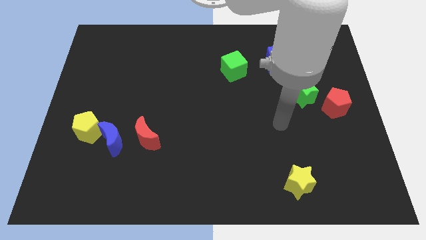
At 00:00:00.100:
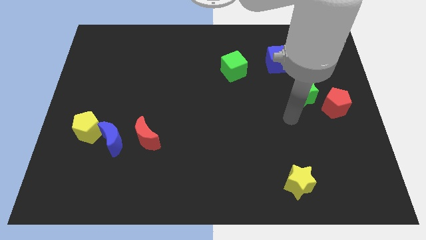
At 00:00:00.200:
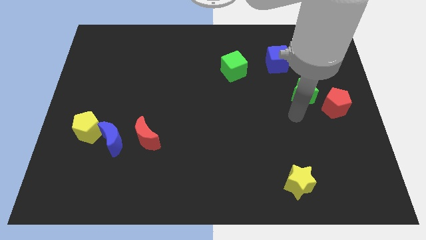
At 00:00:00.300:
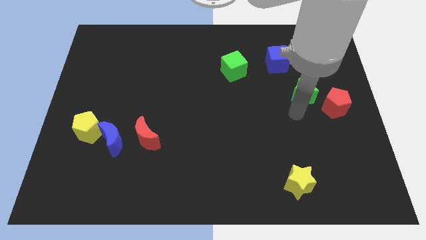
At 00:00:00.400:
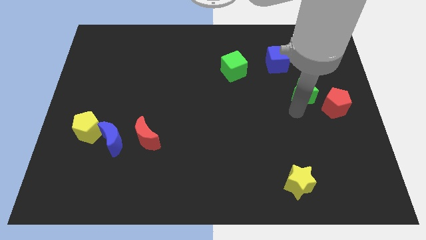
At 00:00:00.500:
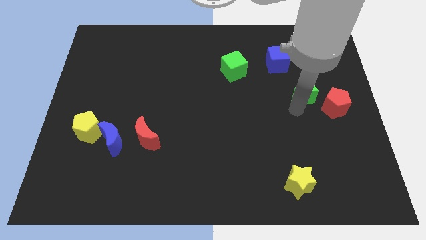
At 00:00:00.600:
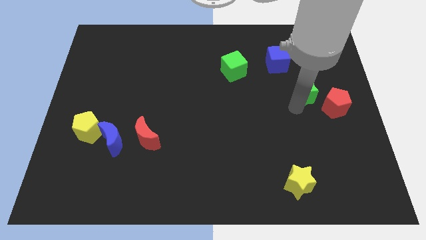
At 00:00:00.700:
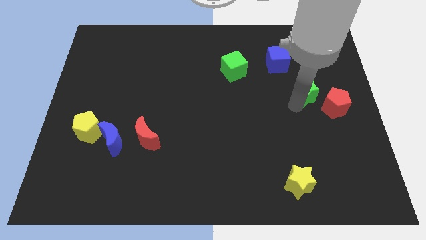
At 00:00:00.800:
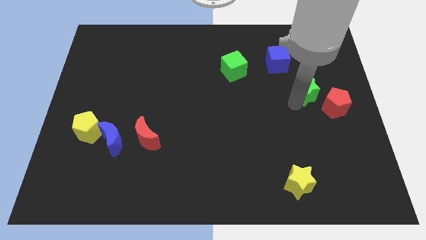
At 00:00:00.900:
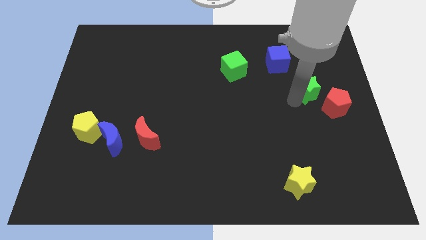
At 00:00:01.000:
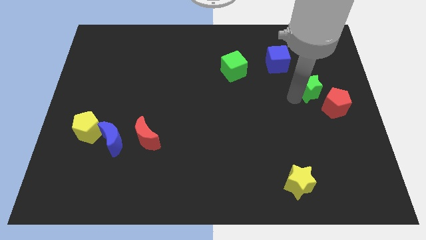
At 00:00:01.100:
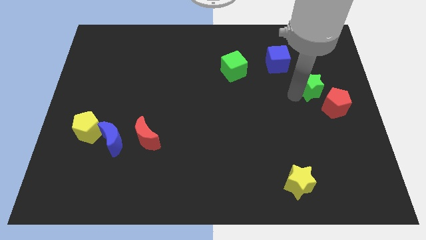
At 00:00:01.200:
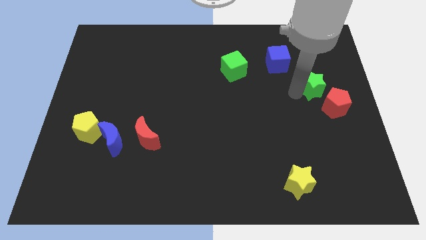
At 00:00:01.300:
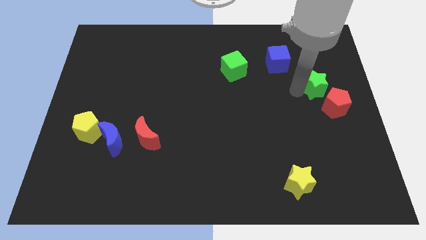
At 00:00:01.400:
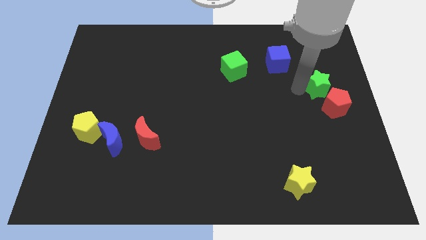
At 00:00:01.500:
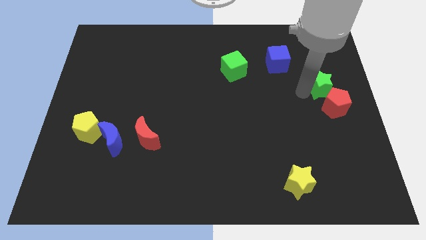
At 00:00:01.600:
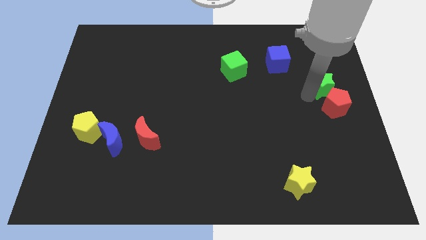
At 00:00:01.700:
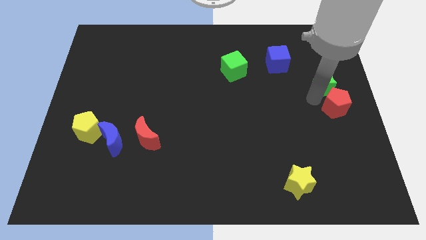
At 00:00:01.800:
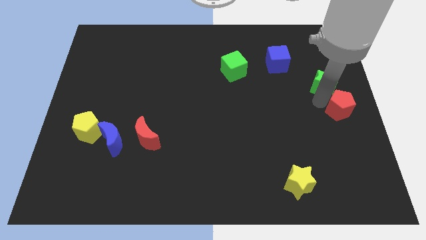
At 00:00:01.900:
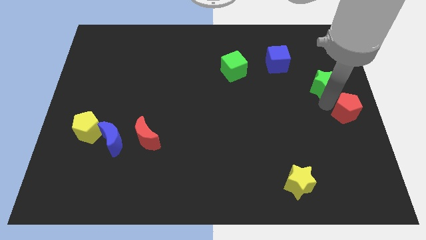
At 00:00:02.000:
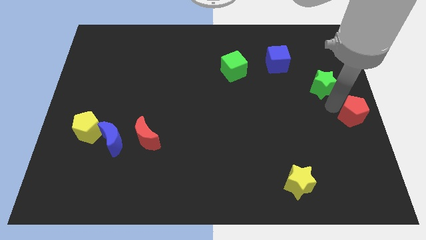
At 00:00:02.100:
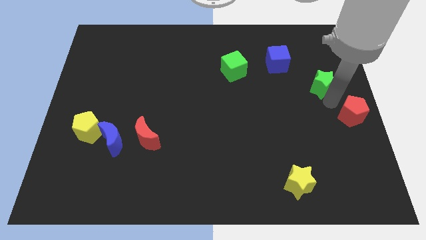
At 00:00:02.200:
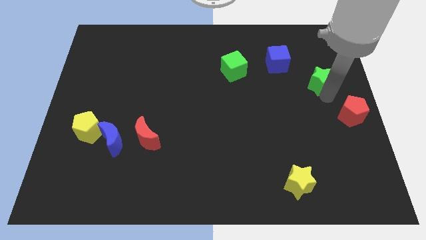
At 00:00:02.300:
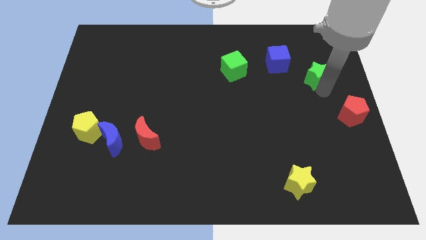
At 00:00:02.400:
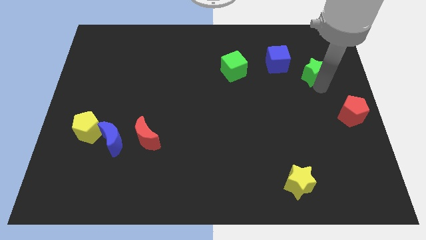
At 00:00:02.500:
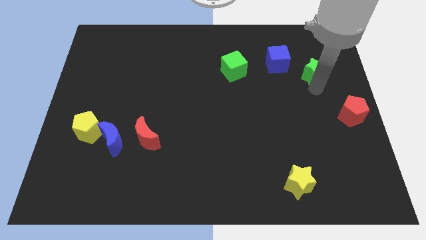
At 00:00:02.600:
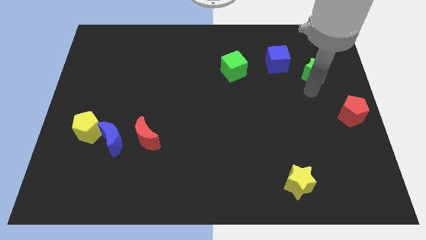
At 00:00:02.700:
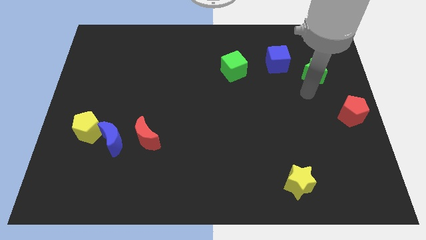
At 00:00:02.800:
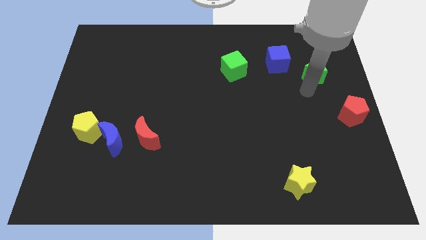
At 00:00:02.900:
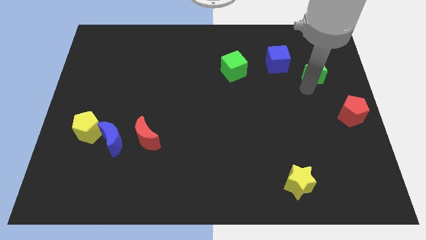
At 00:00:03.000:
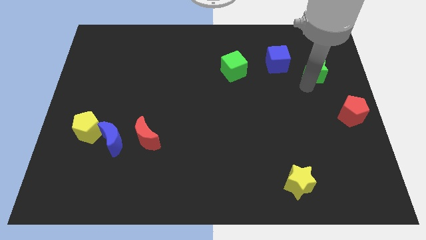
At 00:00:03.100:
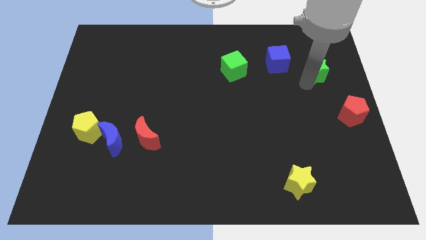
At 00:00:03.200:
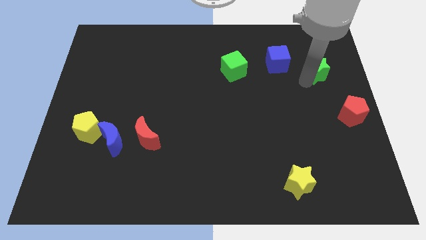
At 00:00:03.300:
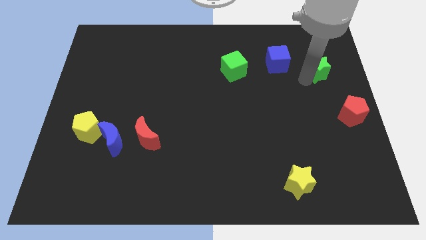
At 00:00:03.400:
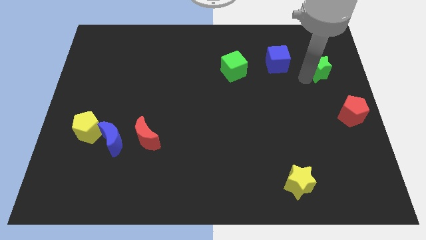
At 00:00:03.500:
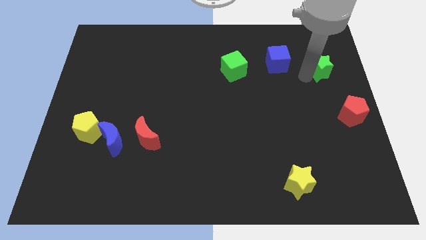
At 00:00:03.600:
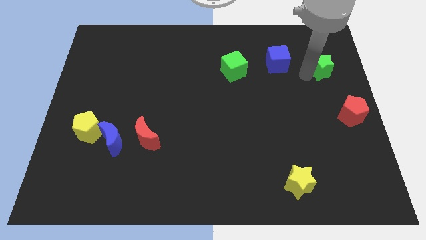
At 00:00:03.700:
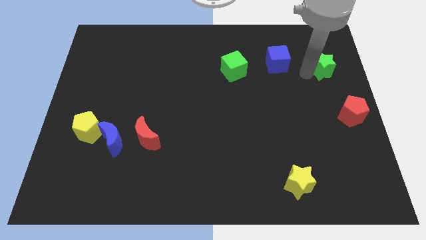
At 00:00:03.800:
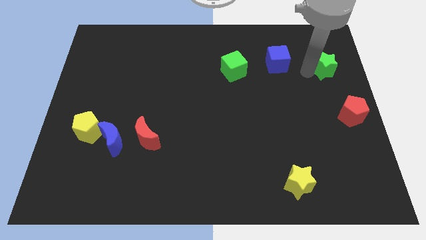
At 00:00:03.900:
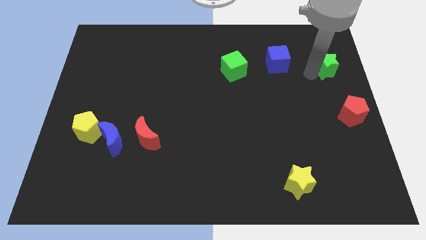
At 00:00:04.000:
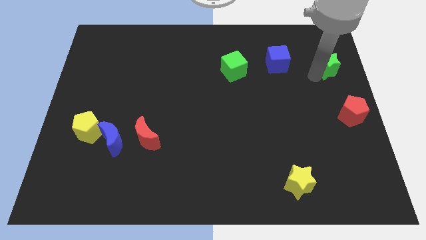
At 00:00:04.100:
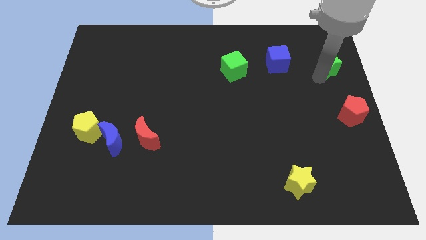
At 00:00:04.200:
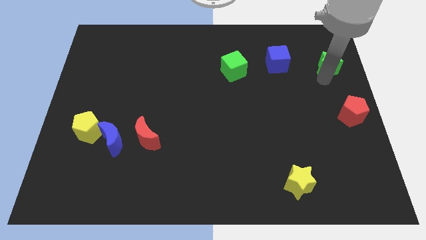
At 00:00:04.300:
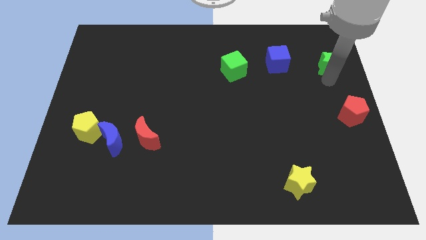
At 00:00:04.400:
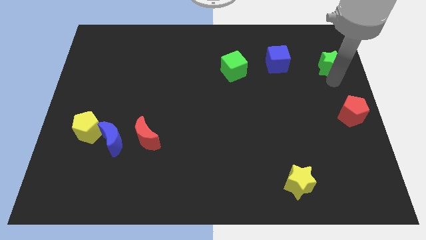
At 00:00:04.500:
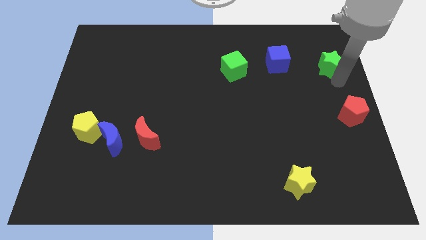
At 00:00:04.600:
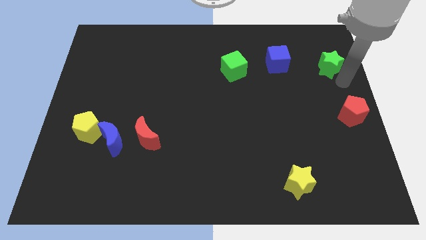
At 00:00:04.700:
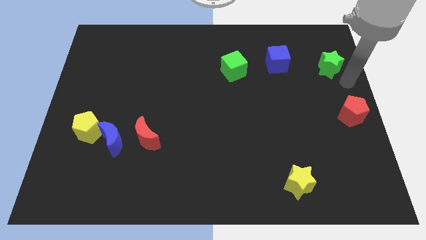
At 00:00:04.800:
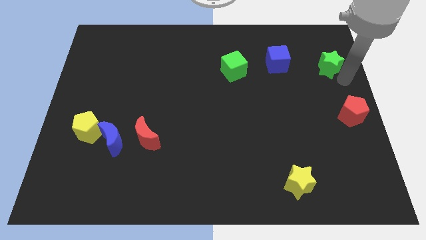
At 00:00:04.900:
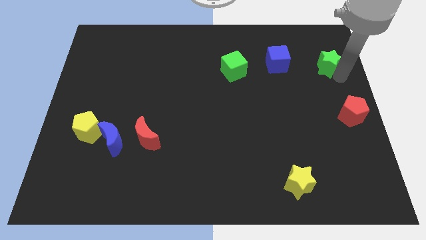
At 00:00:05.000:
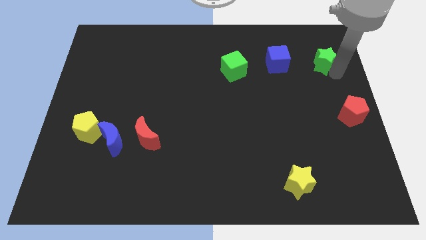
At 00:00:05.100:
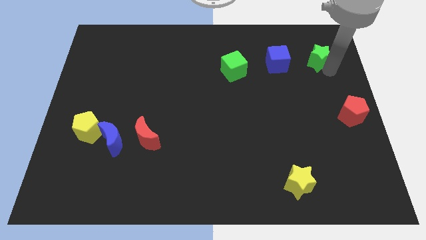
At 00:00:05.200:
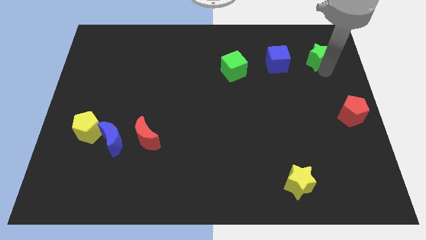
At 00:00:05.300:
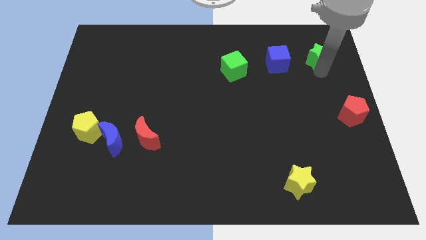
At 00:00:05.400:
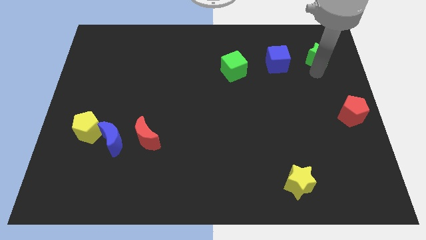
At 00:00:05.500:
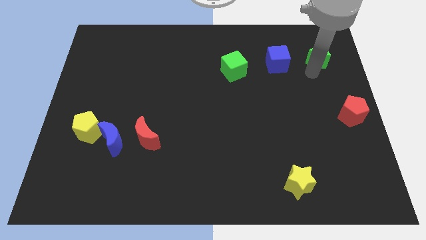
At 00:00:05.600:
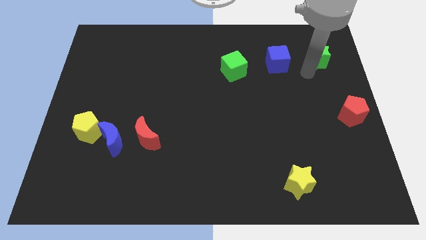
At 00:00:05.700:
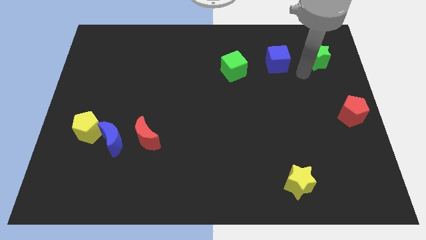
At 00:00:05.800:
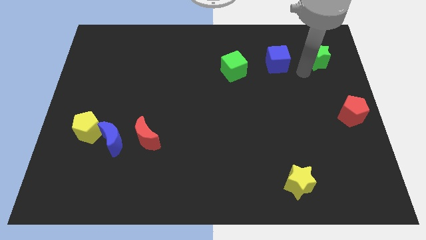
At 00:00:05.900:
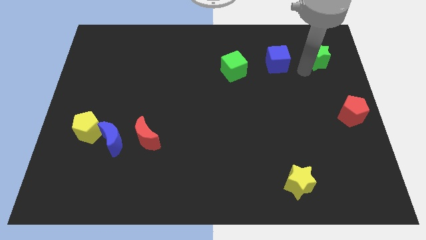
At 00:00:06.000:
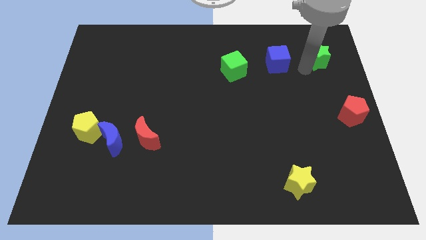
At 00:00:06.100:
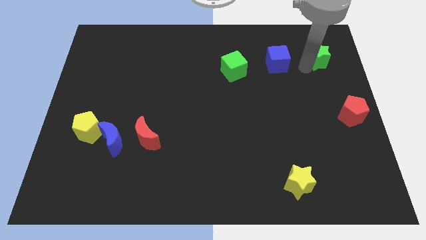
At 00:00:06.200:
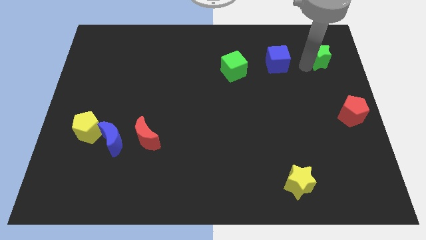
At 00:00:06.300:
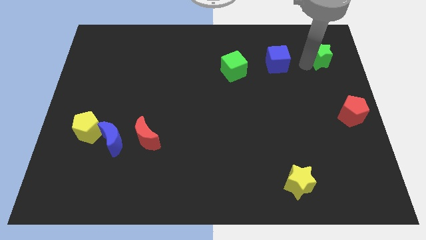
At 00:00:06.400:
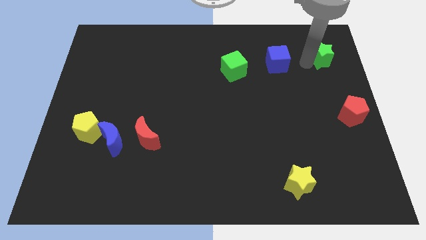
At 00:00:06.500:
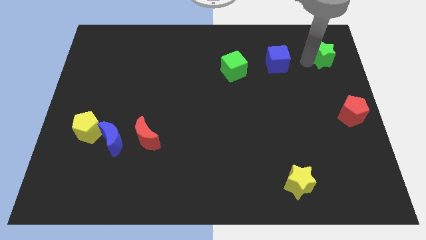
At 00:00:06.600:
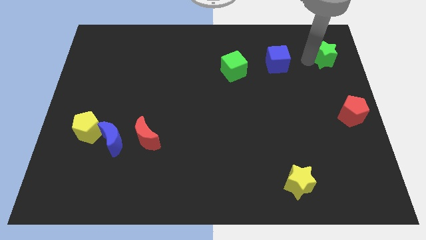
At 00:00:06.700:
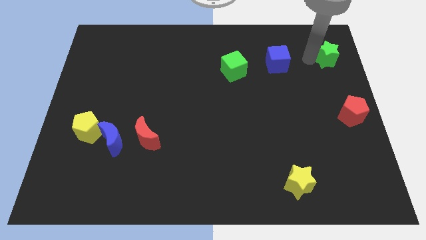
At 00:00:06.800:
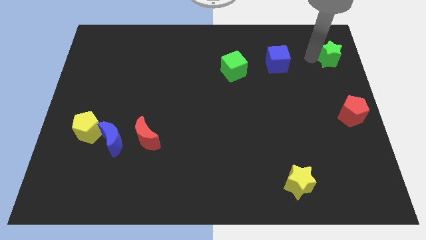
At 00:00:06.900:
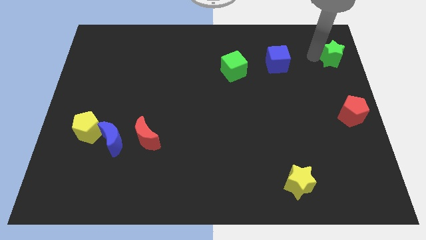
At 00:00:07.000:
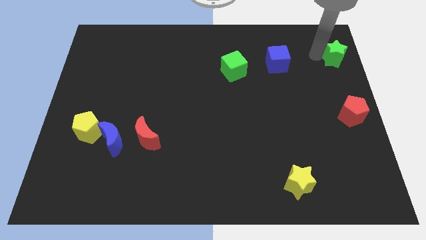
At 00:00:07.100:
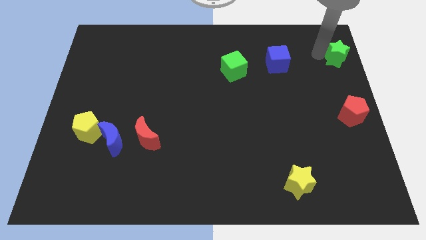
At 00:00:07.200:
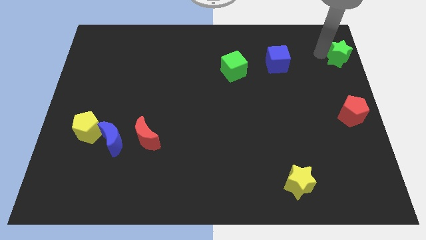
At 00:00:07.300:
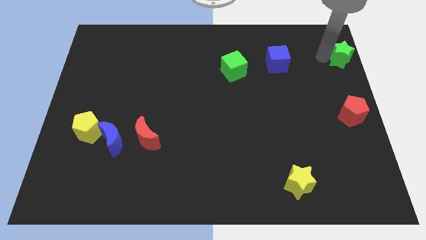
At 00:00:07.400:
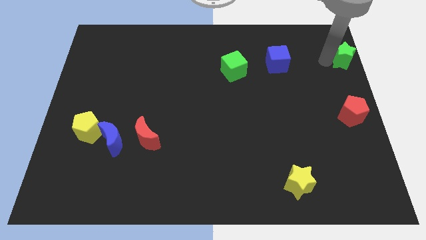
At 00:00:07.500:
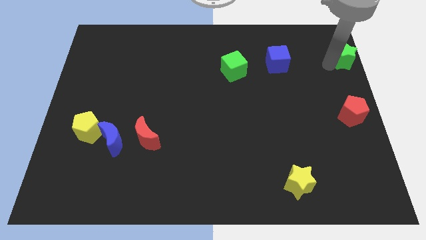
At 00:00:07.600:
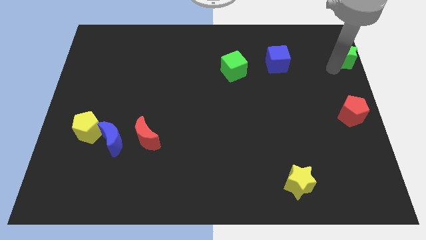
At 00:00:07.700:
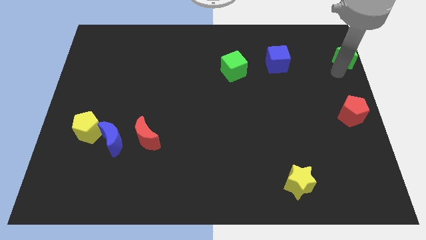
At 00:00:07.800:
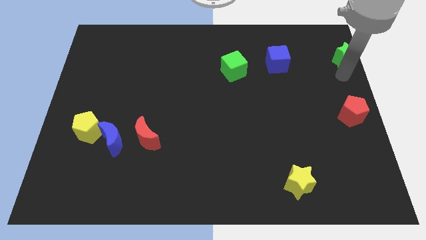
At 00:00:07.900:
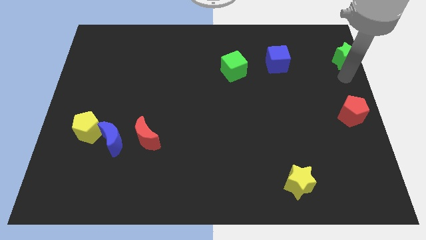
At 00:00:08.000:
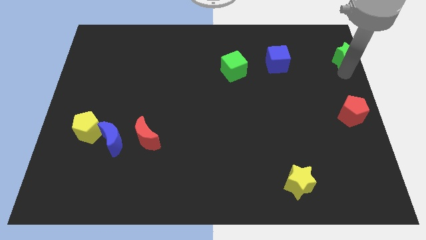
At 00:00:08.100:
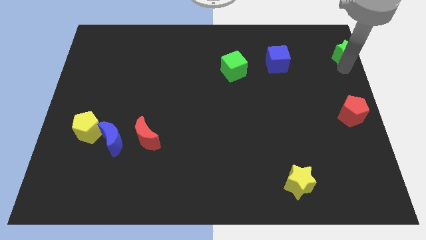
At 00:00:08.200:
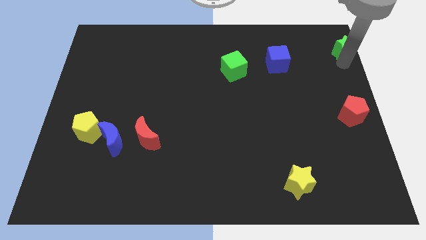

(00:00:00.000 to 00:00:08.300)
push the green star to the top right corner
